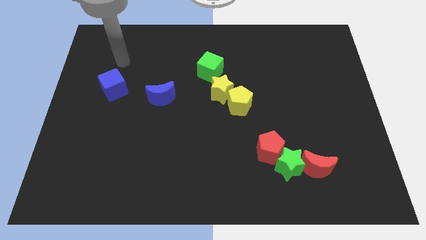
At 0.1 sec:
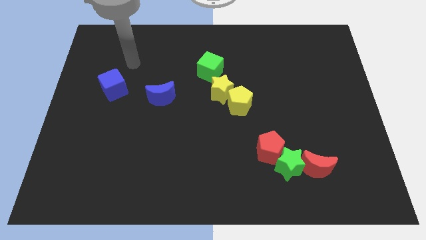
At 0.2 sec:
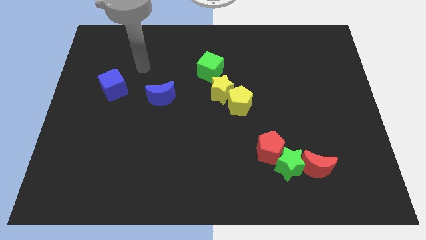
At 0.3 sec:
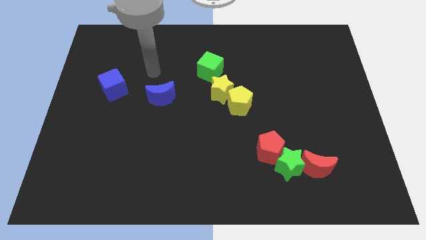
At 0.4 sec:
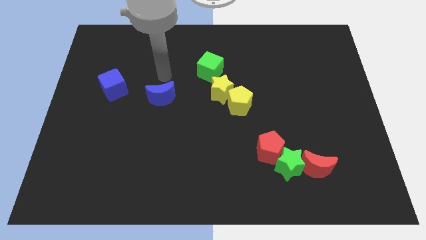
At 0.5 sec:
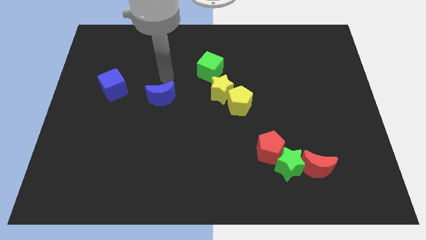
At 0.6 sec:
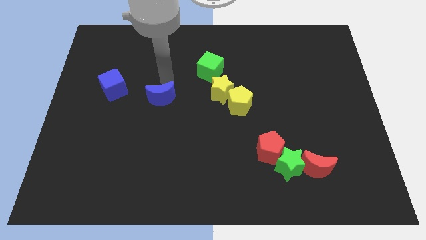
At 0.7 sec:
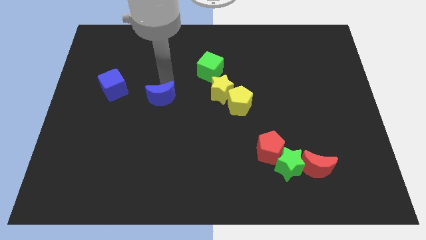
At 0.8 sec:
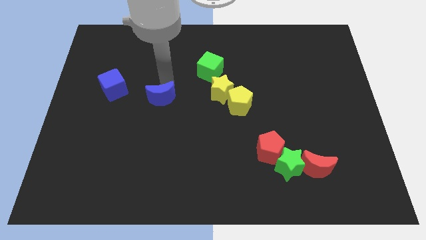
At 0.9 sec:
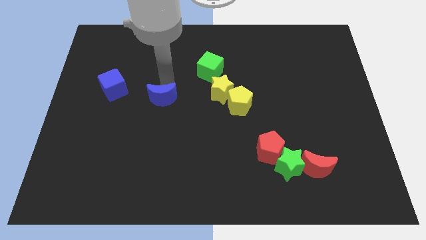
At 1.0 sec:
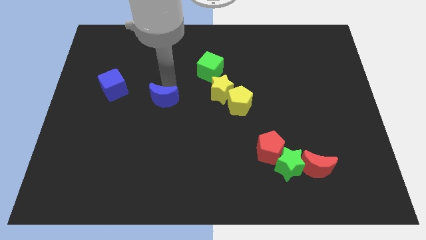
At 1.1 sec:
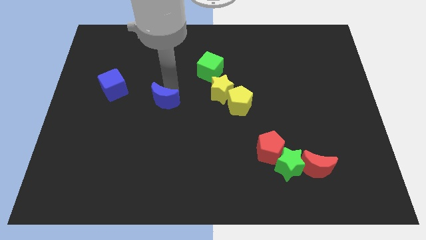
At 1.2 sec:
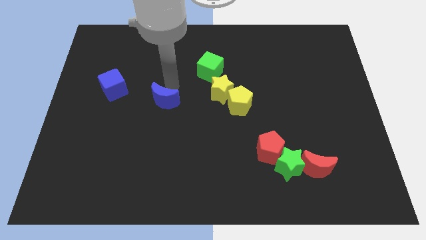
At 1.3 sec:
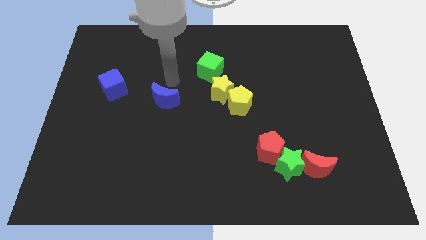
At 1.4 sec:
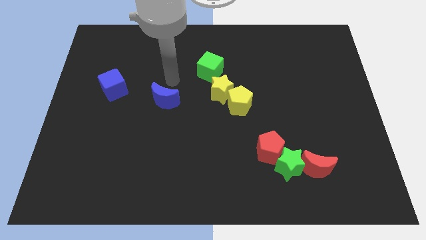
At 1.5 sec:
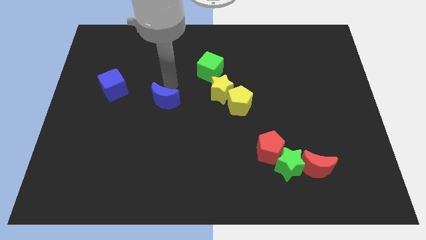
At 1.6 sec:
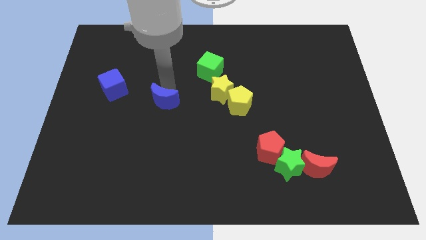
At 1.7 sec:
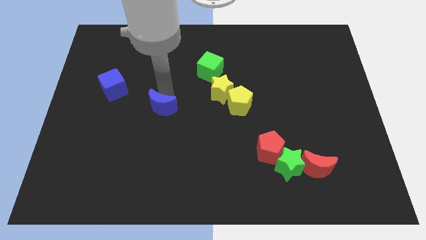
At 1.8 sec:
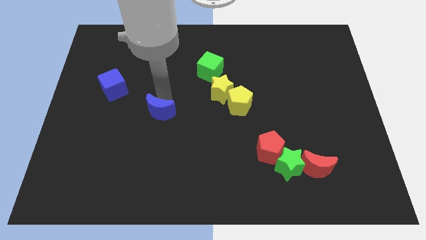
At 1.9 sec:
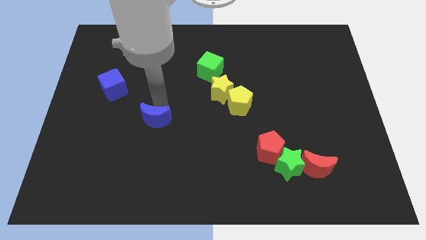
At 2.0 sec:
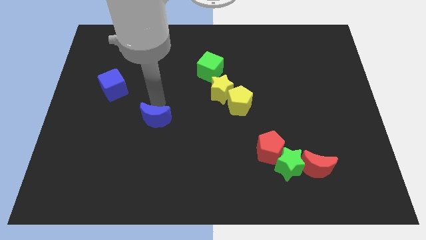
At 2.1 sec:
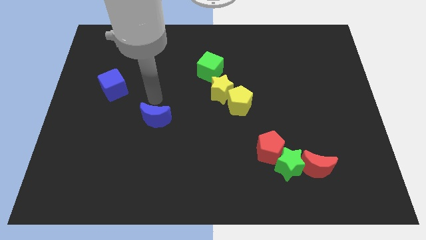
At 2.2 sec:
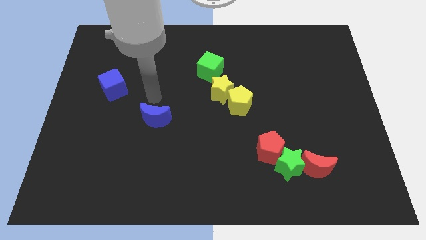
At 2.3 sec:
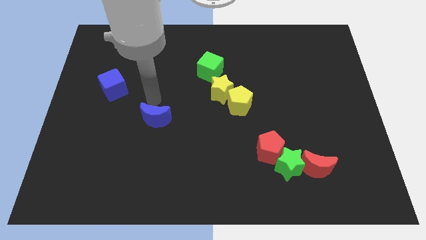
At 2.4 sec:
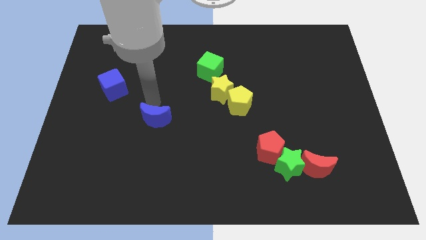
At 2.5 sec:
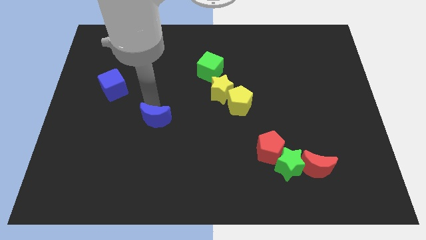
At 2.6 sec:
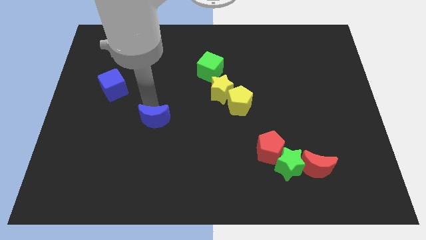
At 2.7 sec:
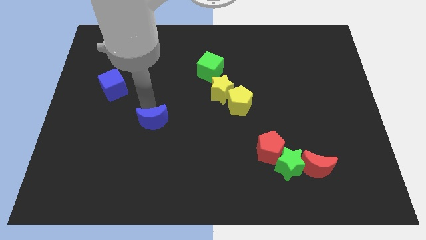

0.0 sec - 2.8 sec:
push the blue moon down somewhat

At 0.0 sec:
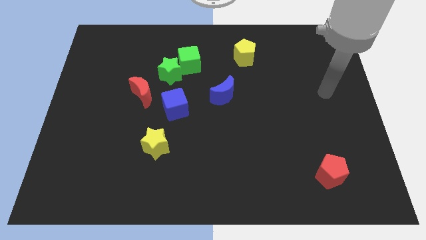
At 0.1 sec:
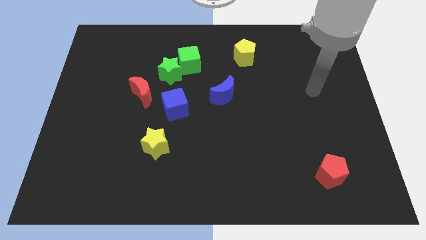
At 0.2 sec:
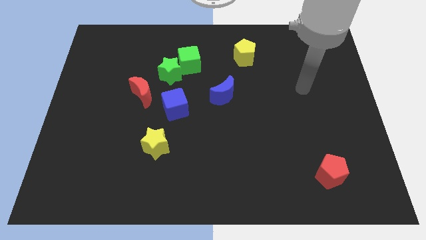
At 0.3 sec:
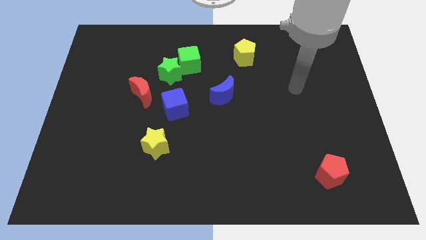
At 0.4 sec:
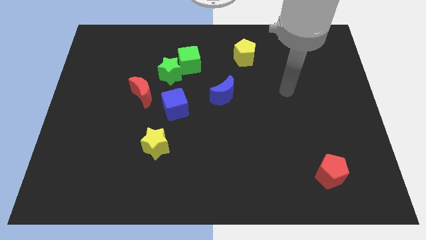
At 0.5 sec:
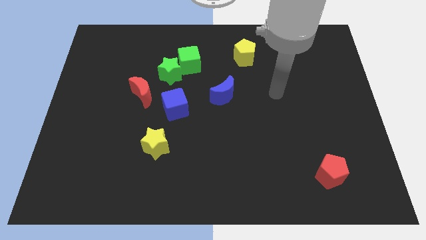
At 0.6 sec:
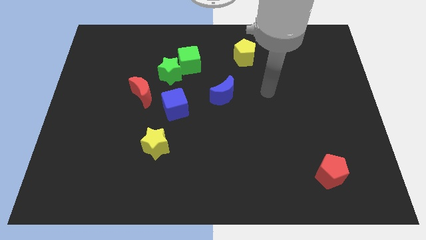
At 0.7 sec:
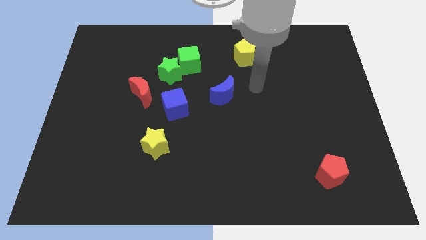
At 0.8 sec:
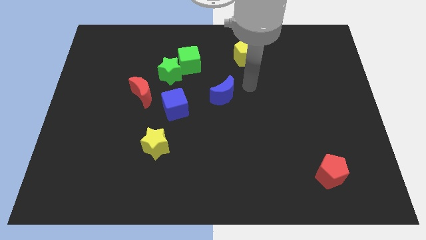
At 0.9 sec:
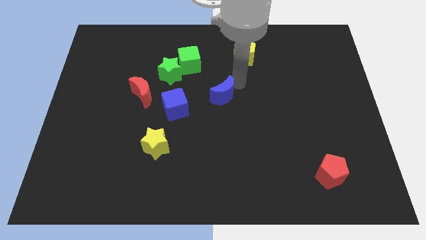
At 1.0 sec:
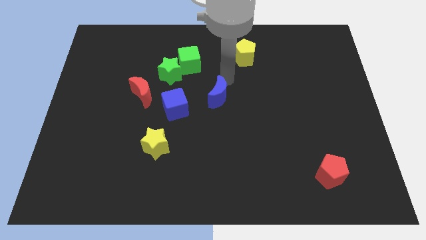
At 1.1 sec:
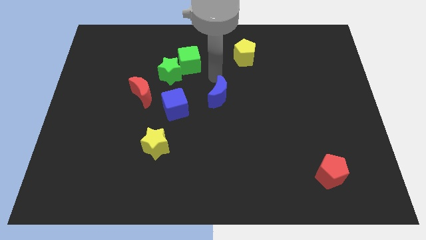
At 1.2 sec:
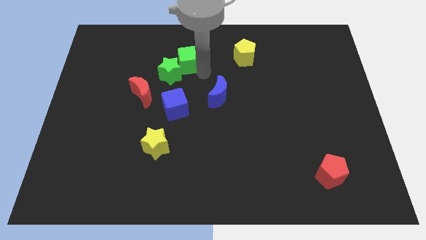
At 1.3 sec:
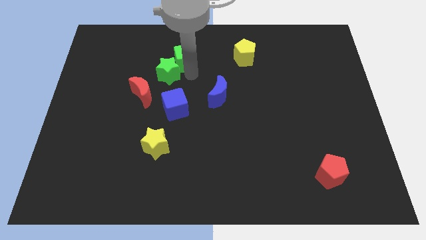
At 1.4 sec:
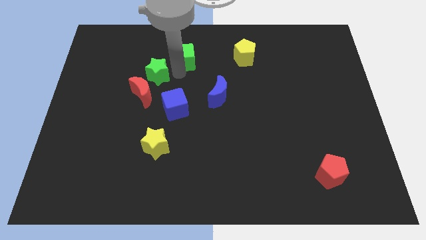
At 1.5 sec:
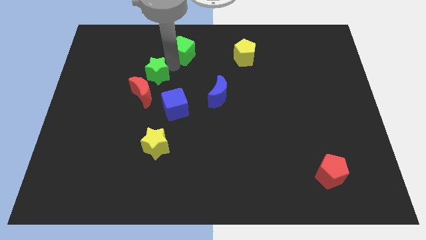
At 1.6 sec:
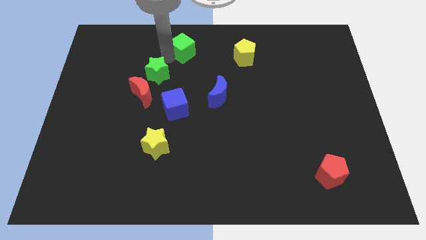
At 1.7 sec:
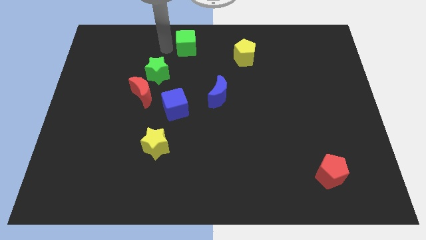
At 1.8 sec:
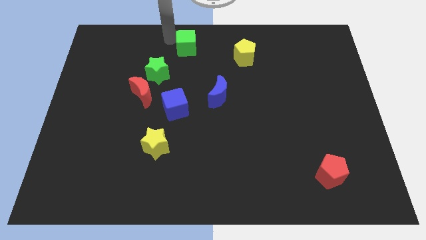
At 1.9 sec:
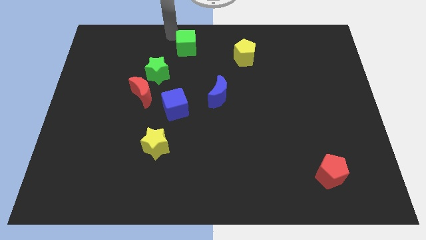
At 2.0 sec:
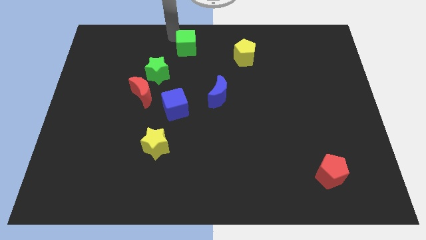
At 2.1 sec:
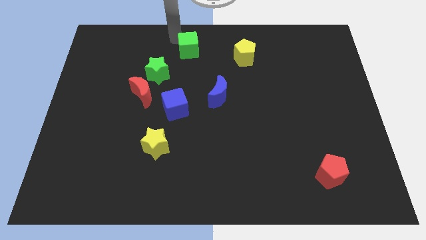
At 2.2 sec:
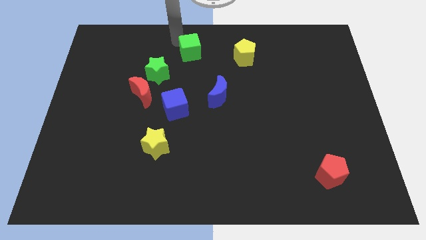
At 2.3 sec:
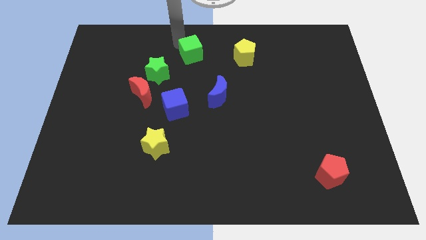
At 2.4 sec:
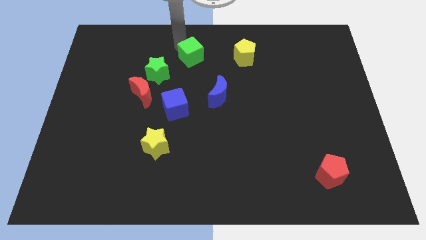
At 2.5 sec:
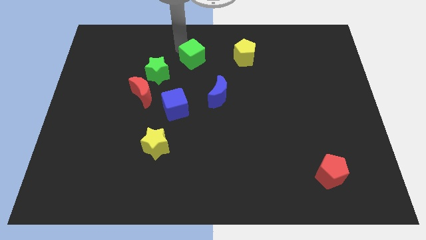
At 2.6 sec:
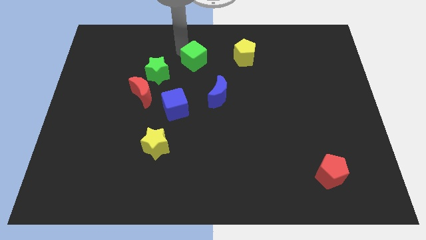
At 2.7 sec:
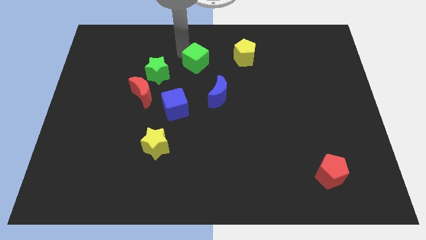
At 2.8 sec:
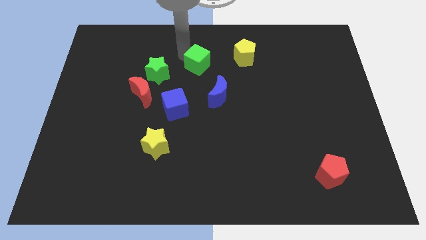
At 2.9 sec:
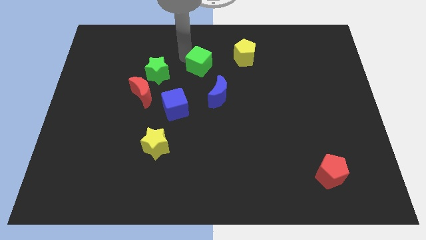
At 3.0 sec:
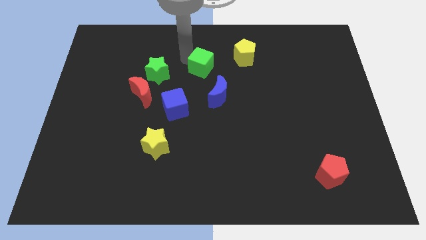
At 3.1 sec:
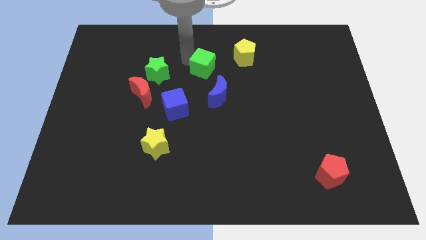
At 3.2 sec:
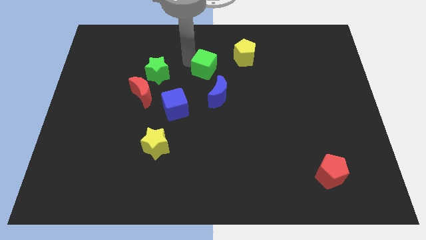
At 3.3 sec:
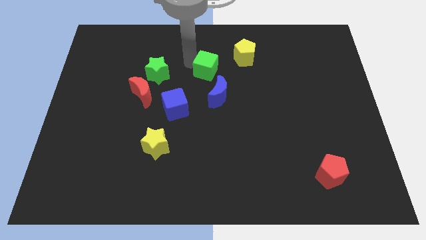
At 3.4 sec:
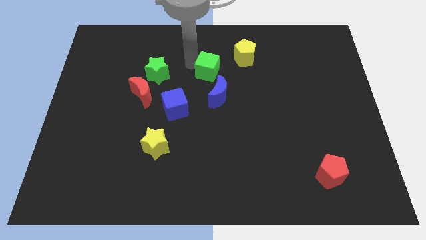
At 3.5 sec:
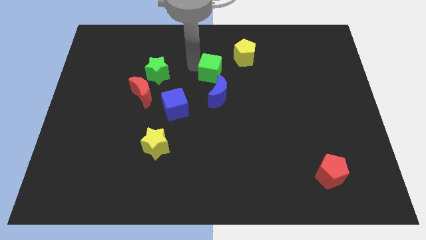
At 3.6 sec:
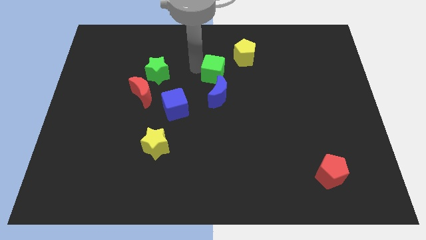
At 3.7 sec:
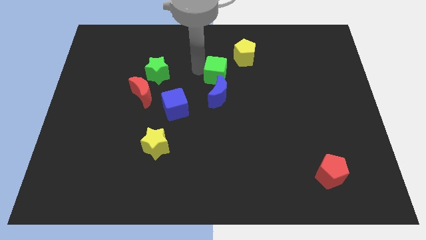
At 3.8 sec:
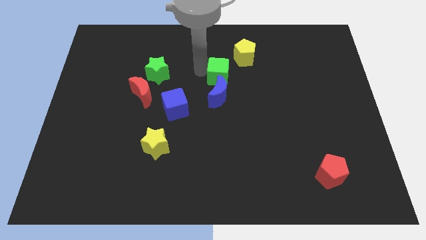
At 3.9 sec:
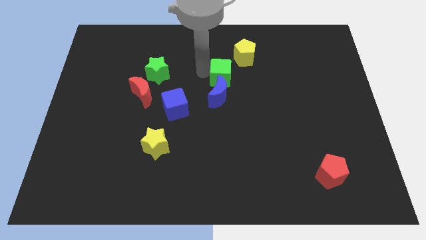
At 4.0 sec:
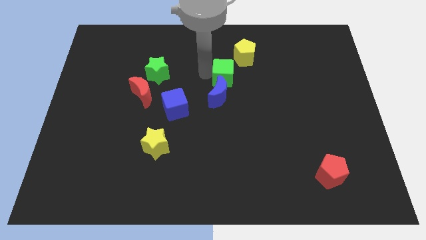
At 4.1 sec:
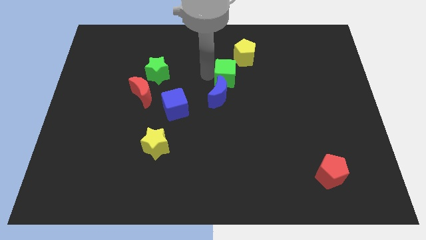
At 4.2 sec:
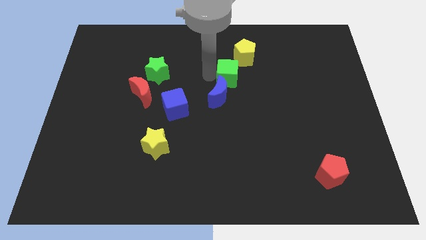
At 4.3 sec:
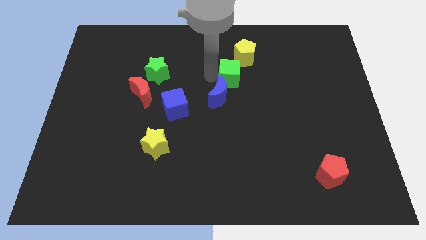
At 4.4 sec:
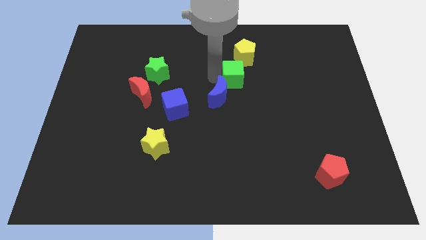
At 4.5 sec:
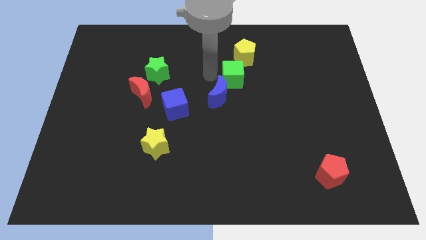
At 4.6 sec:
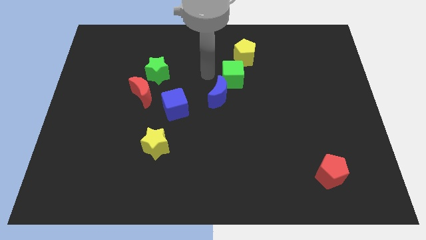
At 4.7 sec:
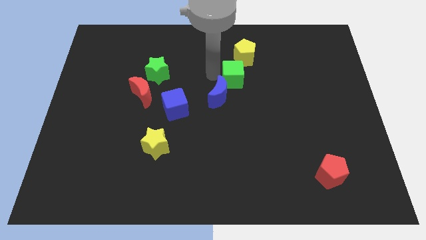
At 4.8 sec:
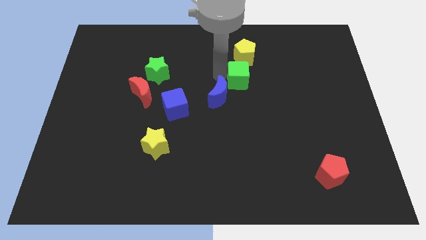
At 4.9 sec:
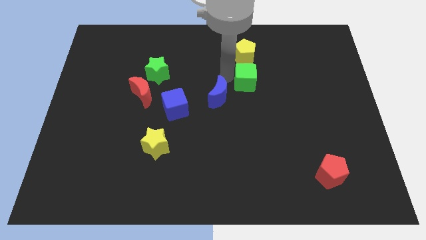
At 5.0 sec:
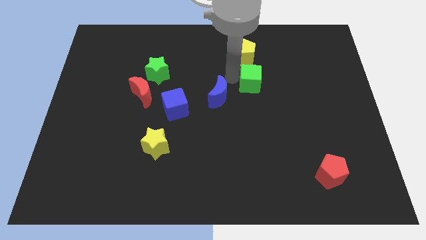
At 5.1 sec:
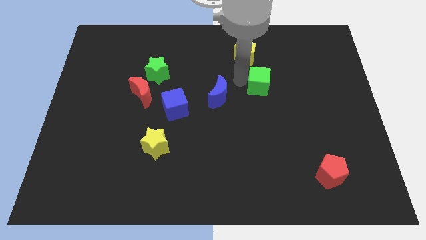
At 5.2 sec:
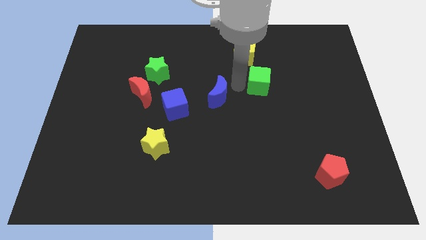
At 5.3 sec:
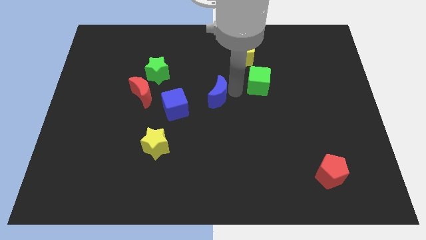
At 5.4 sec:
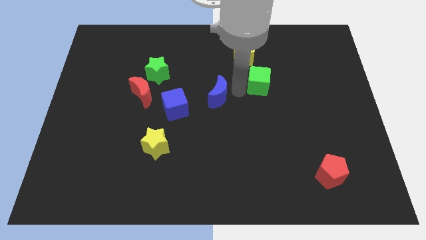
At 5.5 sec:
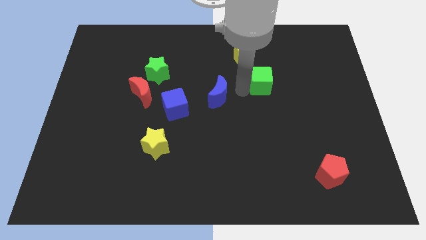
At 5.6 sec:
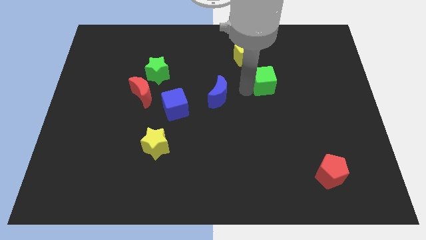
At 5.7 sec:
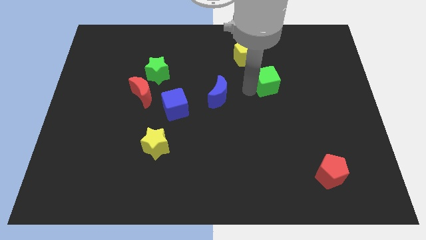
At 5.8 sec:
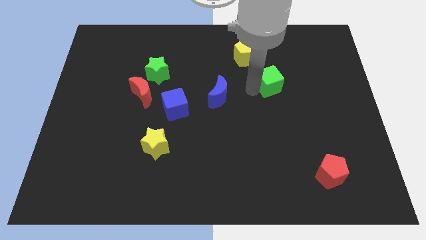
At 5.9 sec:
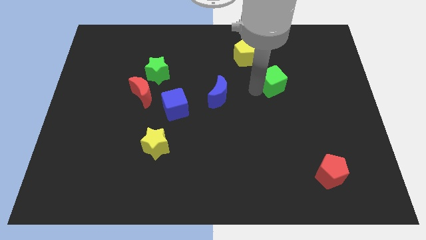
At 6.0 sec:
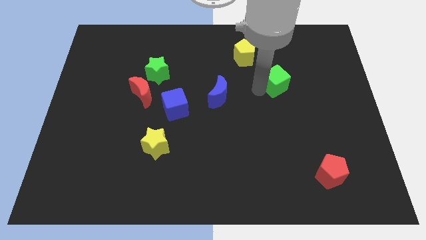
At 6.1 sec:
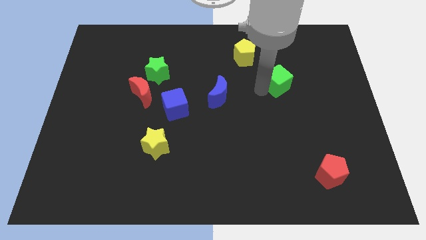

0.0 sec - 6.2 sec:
push the green cube right
